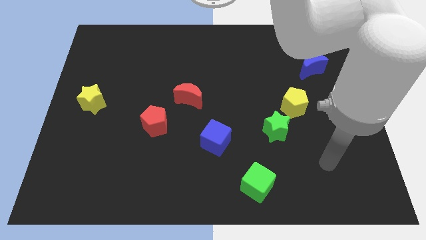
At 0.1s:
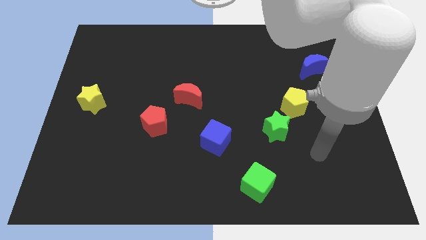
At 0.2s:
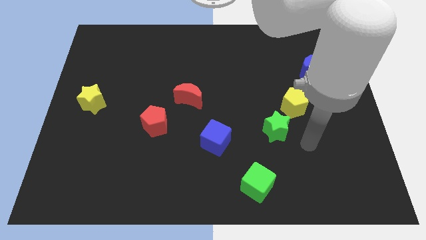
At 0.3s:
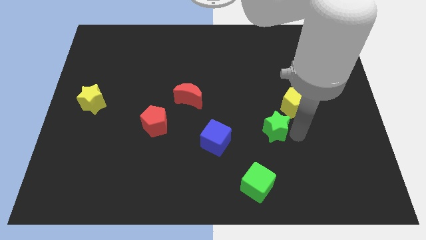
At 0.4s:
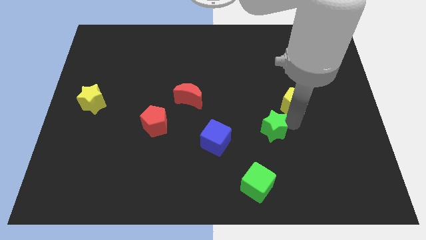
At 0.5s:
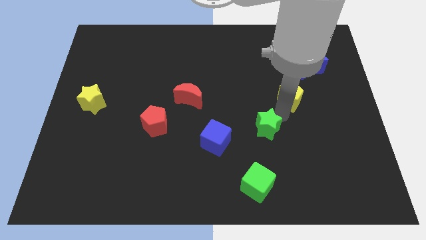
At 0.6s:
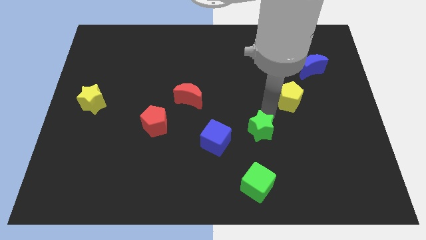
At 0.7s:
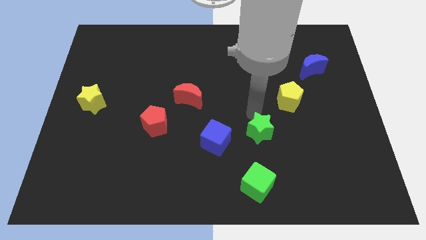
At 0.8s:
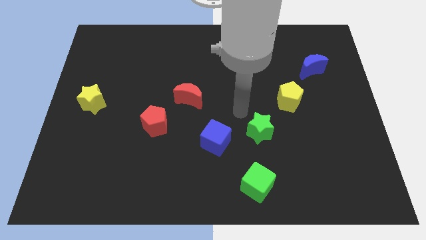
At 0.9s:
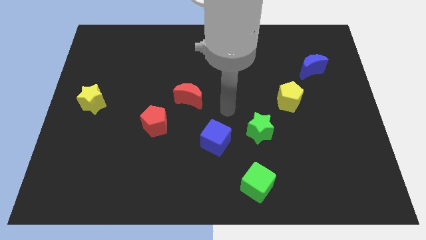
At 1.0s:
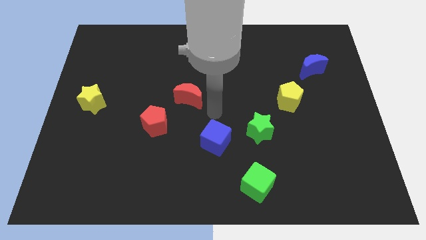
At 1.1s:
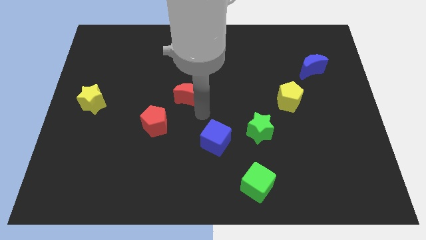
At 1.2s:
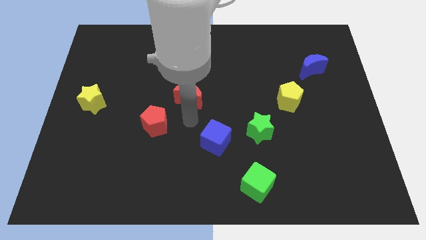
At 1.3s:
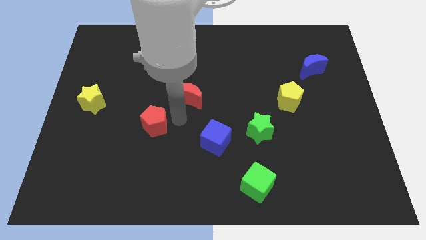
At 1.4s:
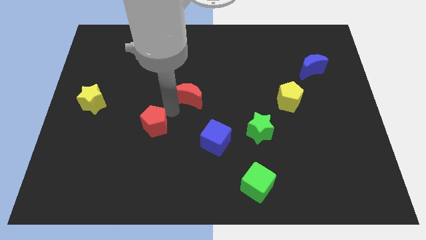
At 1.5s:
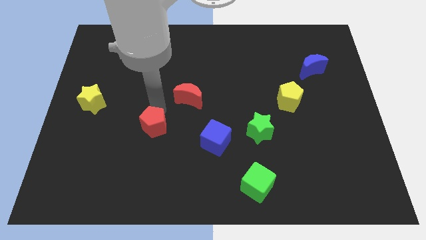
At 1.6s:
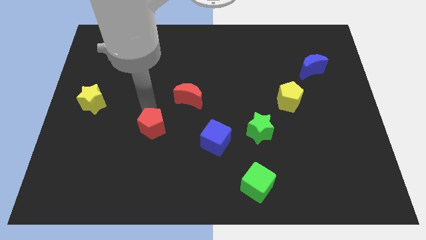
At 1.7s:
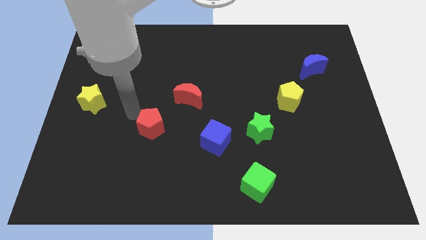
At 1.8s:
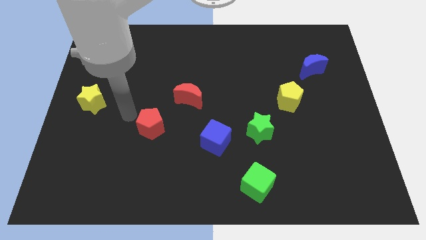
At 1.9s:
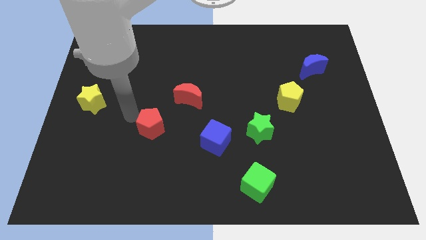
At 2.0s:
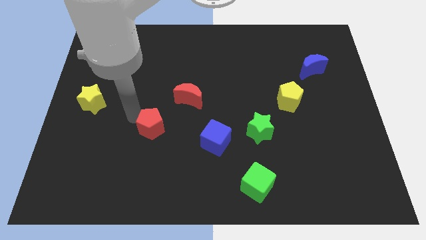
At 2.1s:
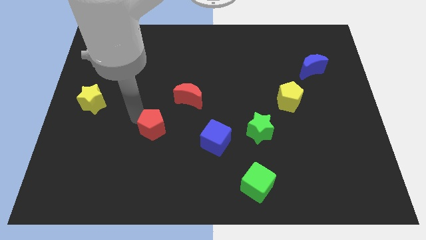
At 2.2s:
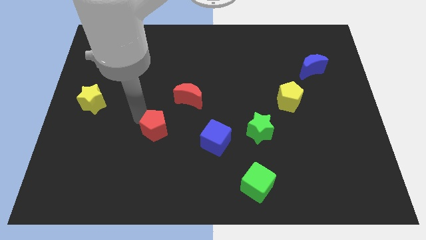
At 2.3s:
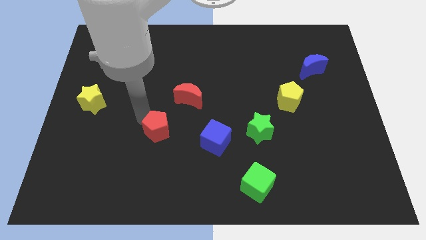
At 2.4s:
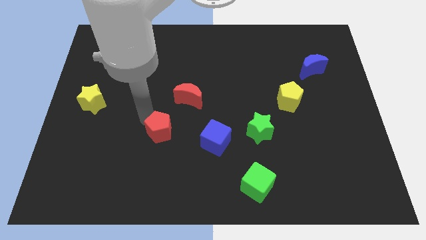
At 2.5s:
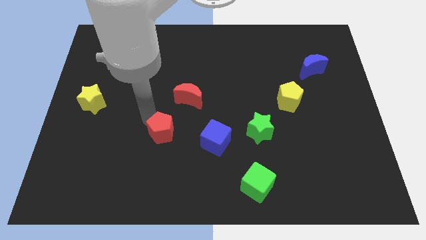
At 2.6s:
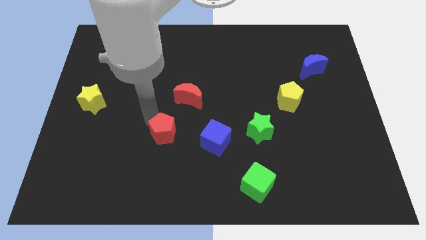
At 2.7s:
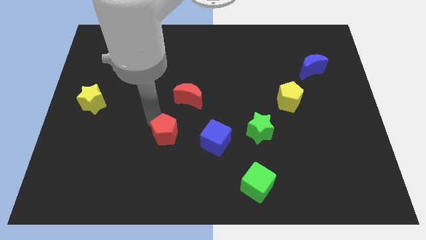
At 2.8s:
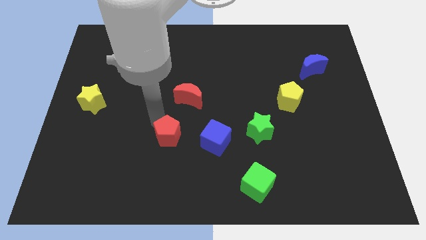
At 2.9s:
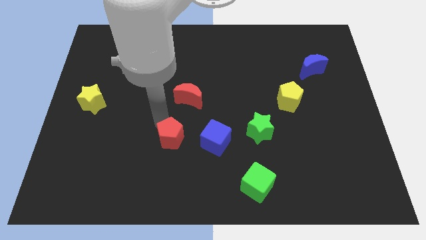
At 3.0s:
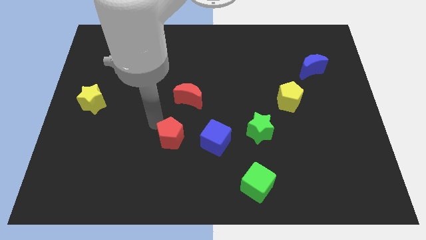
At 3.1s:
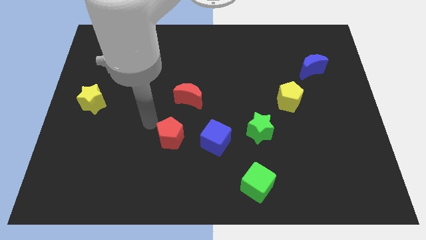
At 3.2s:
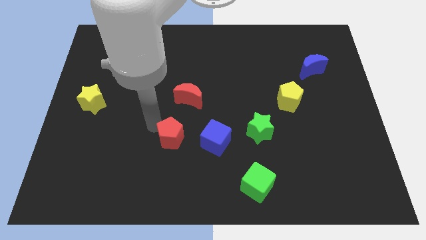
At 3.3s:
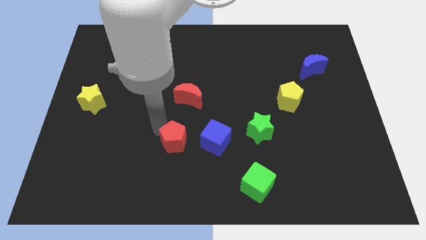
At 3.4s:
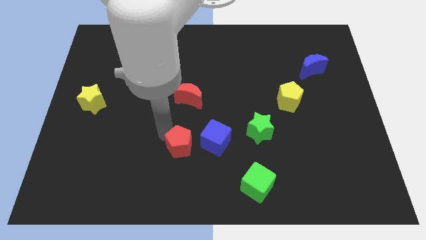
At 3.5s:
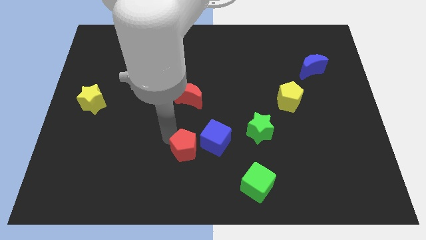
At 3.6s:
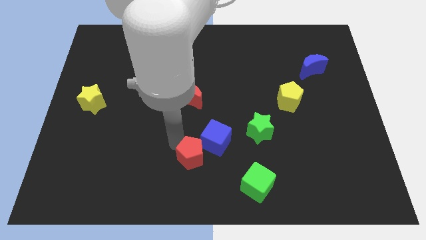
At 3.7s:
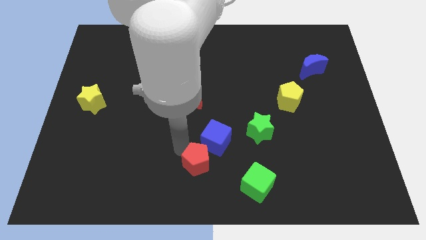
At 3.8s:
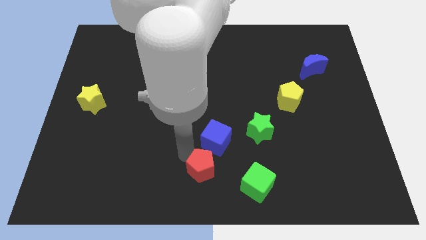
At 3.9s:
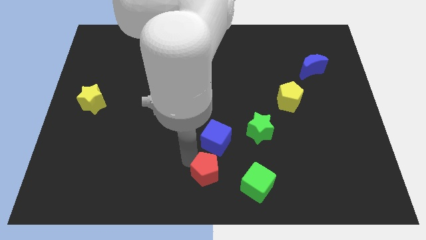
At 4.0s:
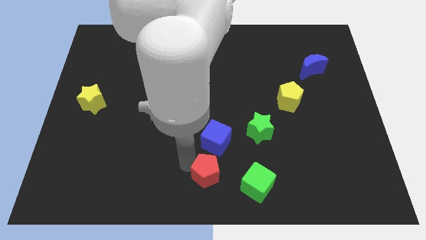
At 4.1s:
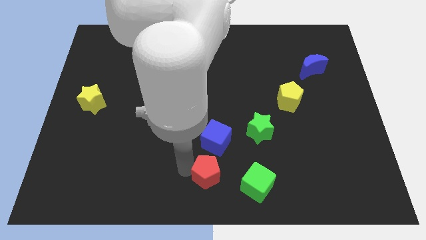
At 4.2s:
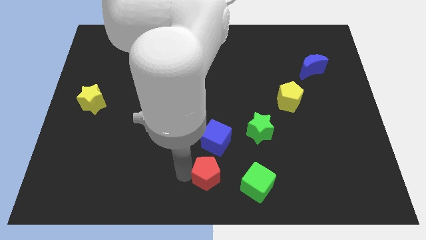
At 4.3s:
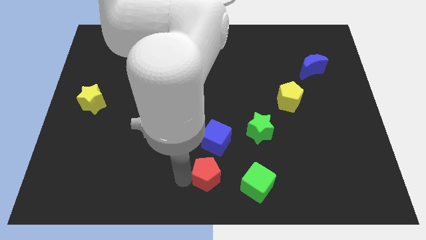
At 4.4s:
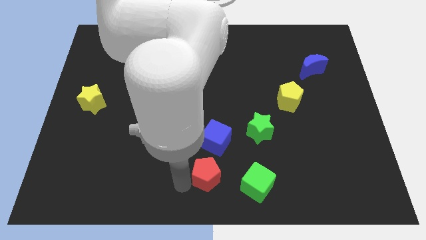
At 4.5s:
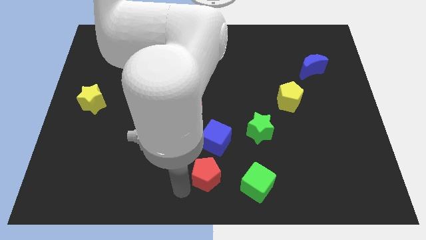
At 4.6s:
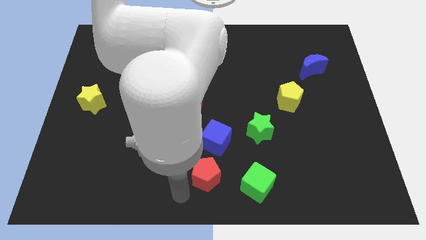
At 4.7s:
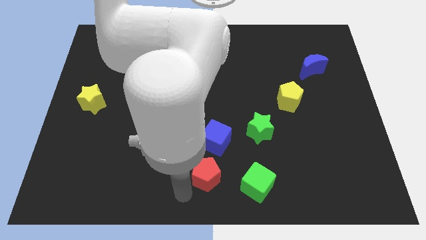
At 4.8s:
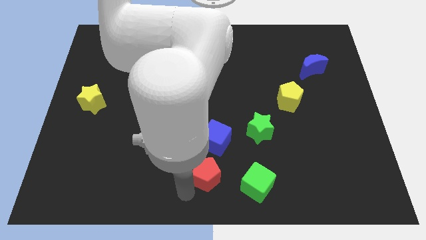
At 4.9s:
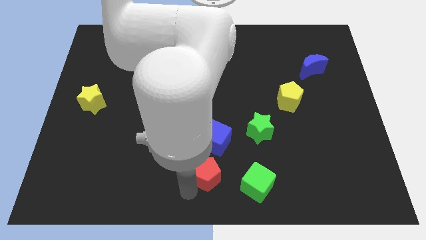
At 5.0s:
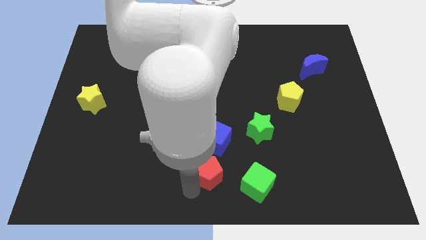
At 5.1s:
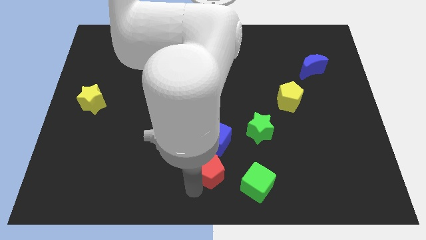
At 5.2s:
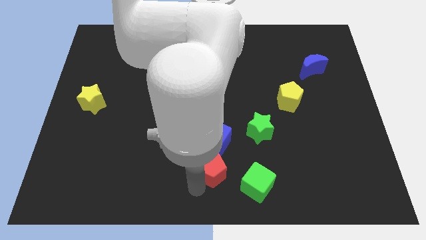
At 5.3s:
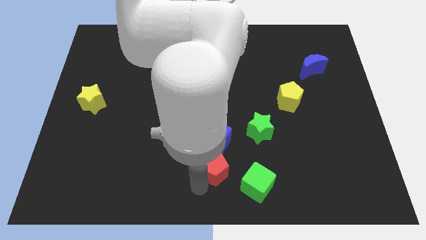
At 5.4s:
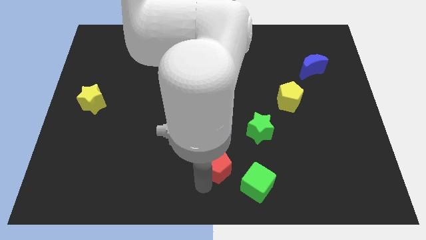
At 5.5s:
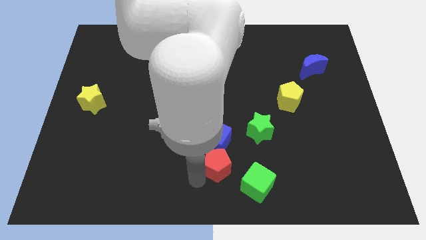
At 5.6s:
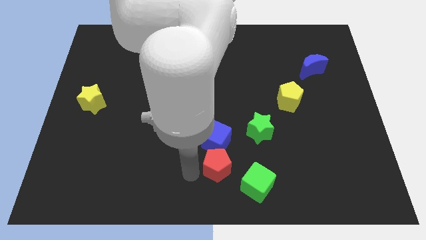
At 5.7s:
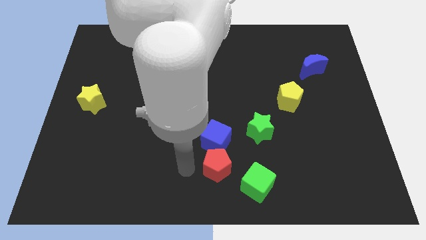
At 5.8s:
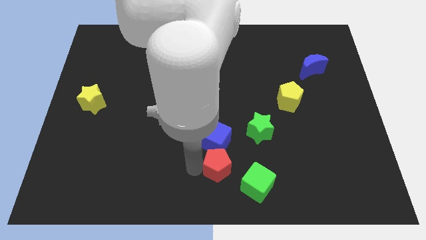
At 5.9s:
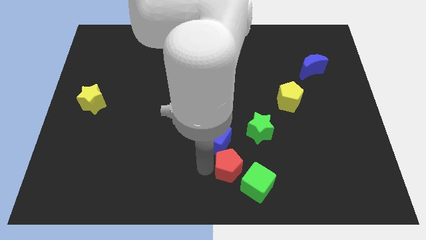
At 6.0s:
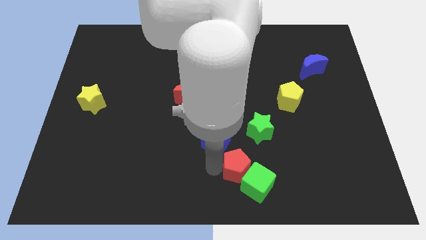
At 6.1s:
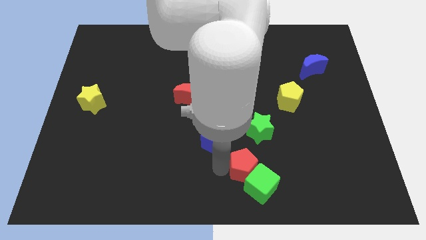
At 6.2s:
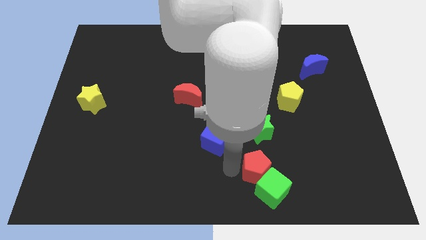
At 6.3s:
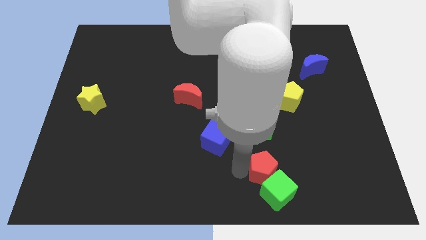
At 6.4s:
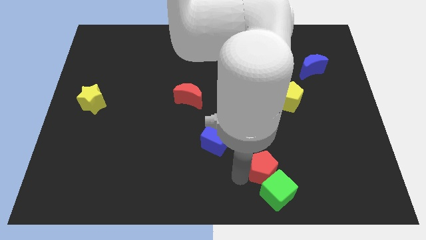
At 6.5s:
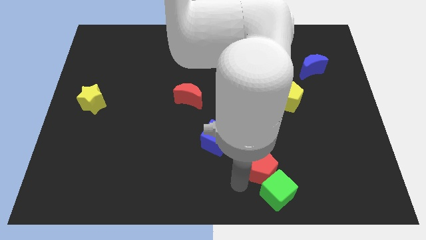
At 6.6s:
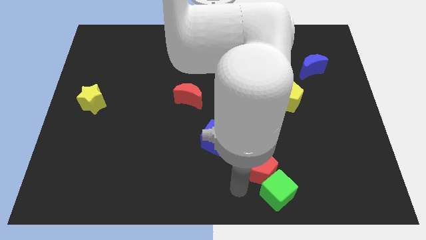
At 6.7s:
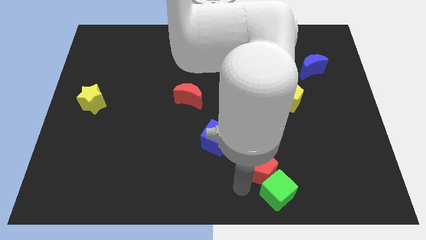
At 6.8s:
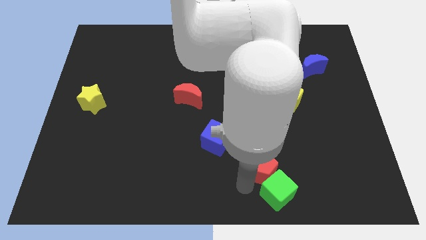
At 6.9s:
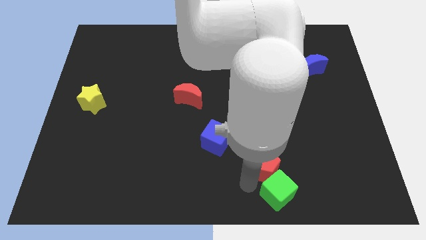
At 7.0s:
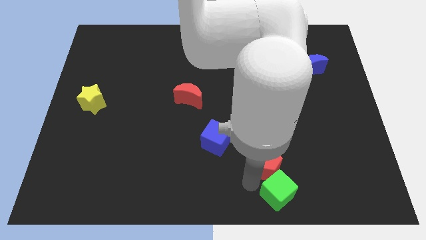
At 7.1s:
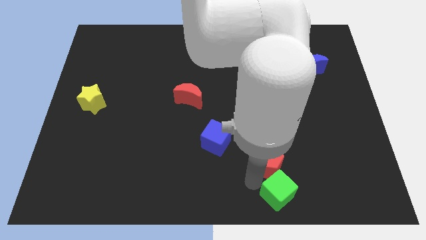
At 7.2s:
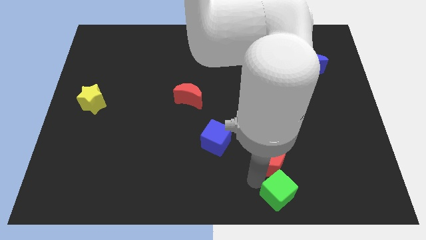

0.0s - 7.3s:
move the red pentagon to the right

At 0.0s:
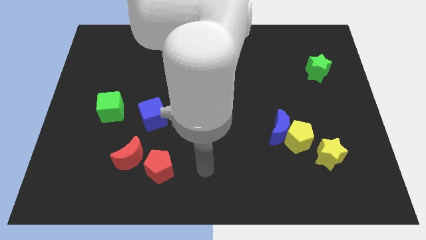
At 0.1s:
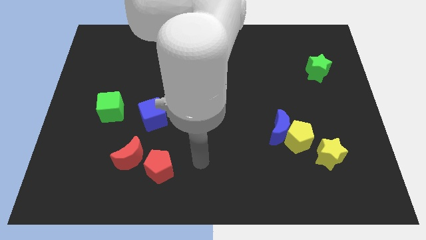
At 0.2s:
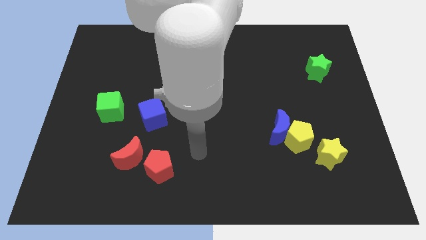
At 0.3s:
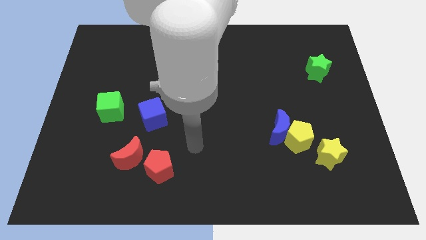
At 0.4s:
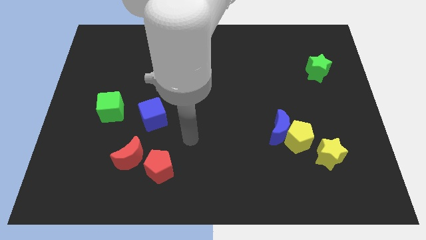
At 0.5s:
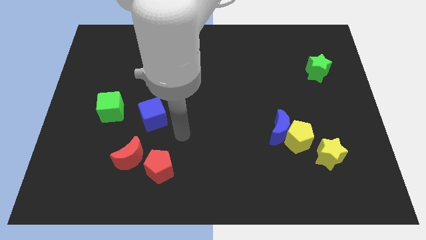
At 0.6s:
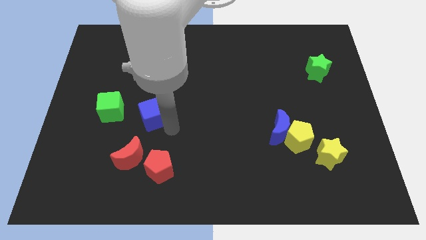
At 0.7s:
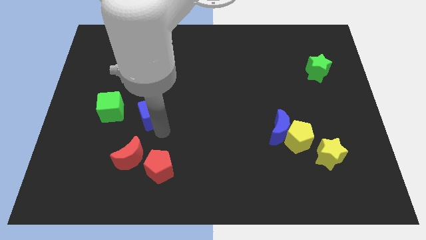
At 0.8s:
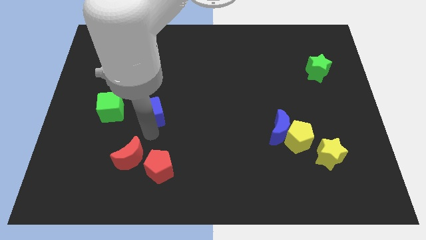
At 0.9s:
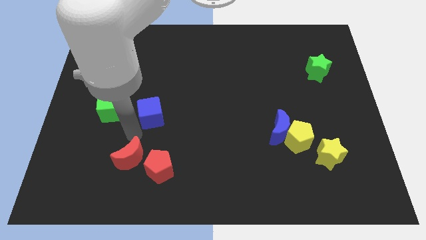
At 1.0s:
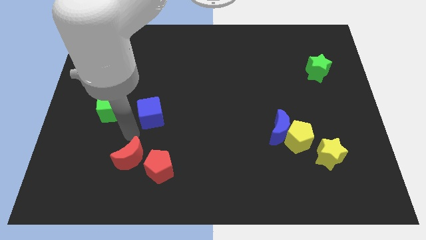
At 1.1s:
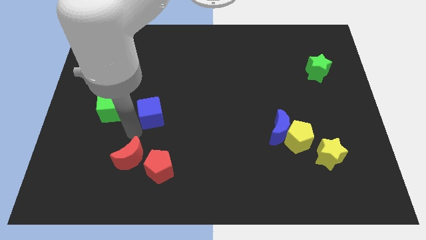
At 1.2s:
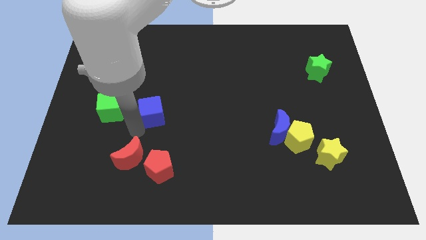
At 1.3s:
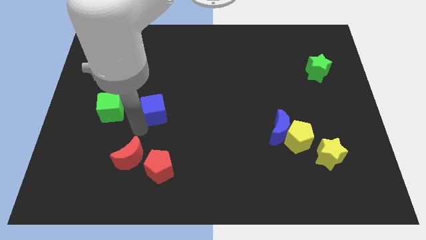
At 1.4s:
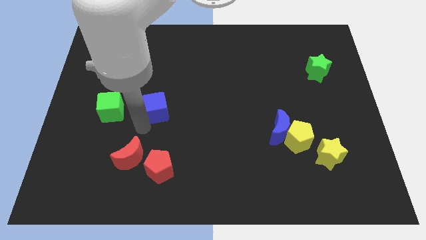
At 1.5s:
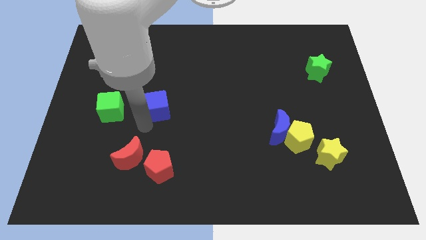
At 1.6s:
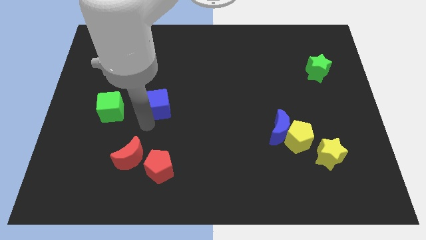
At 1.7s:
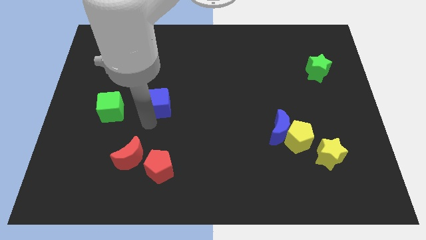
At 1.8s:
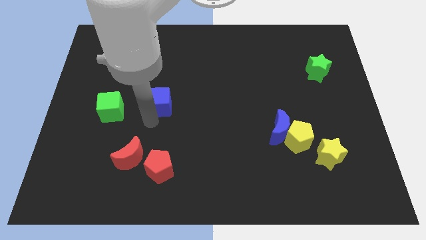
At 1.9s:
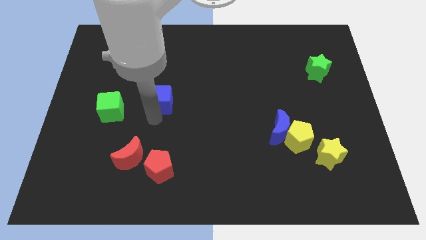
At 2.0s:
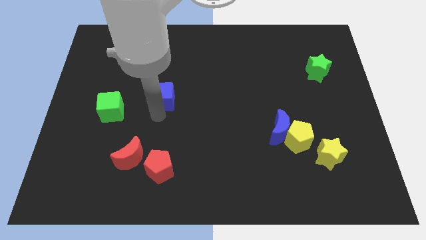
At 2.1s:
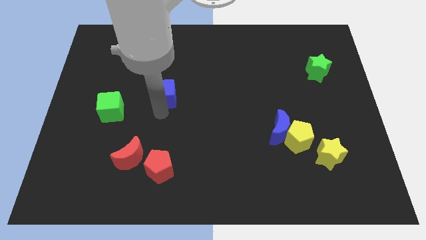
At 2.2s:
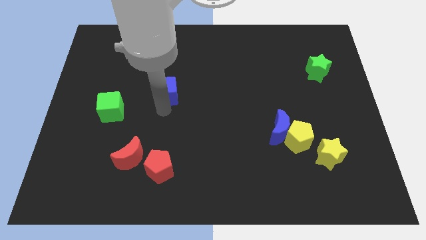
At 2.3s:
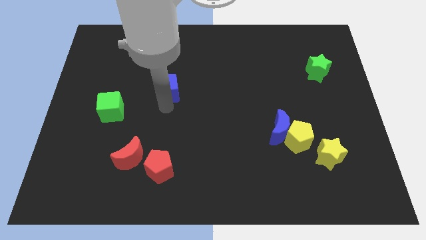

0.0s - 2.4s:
move the blue cube a little bit up and right diagonally
